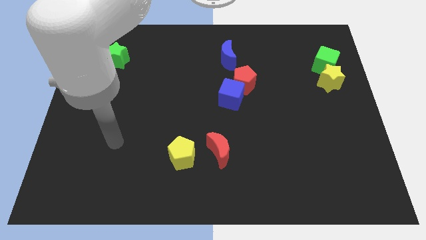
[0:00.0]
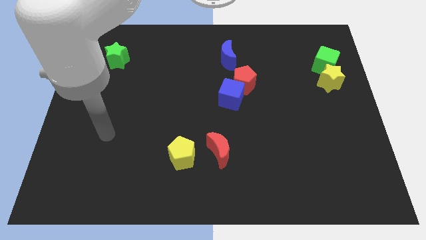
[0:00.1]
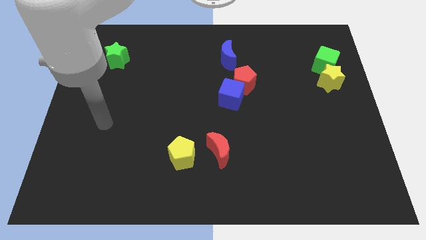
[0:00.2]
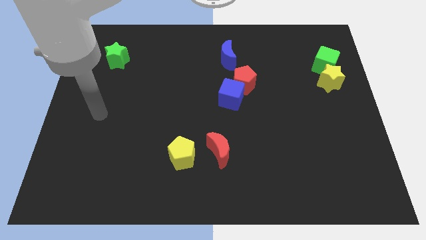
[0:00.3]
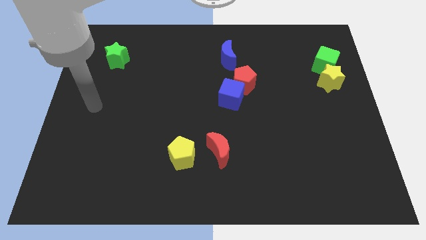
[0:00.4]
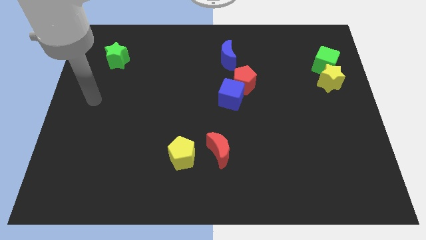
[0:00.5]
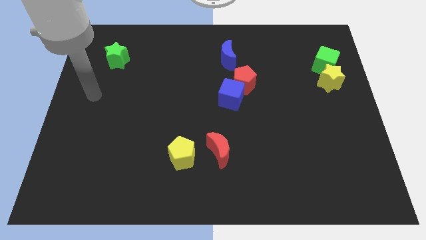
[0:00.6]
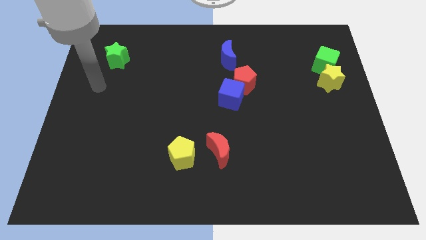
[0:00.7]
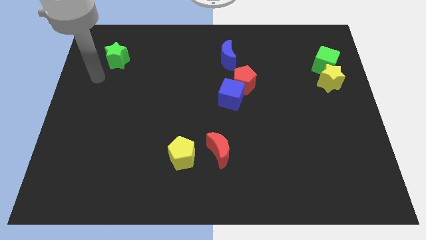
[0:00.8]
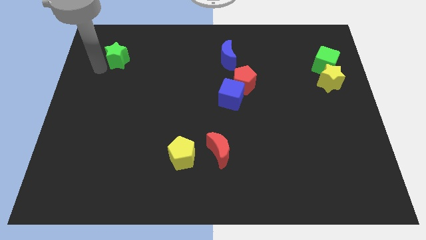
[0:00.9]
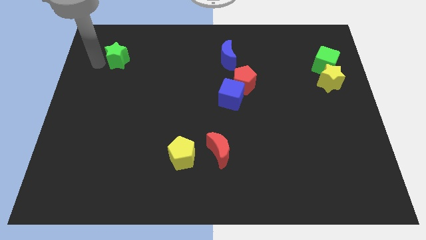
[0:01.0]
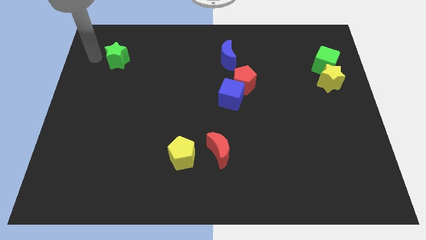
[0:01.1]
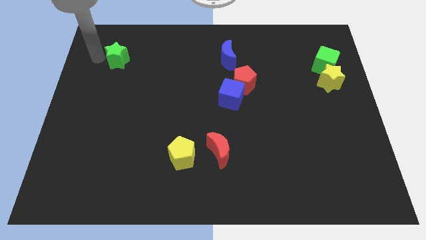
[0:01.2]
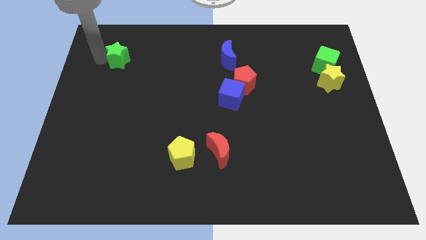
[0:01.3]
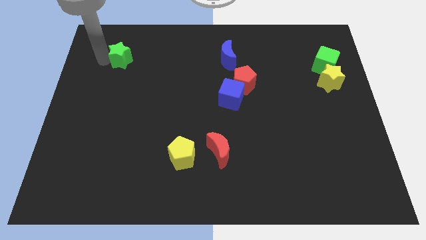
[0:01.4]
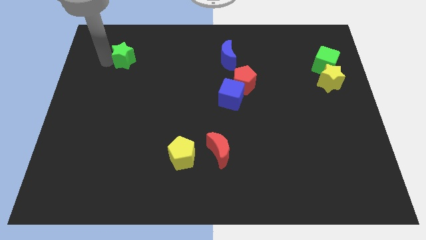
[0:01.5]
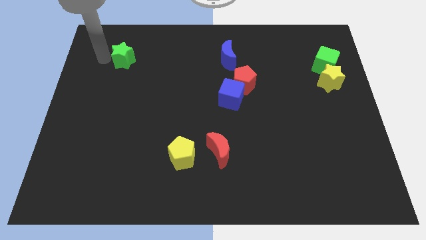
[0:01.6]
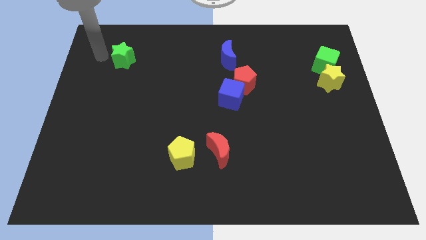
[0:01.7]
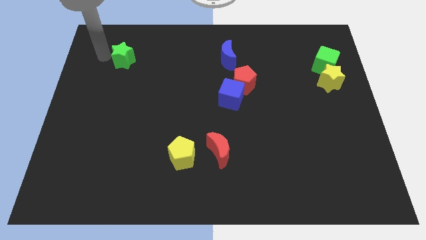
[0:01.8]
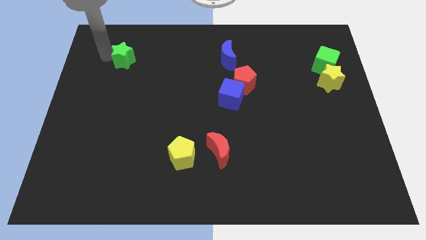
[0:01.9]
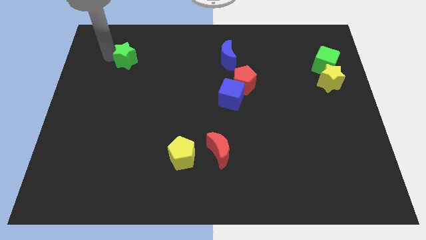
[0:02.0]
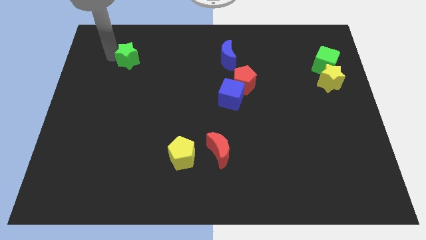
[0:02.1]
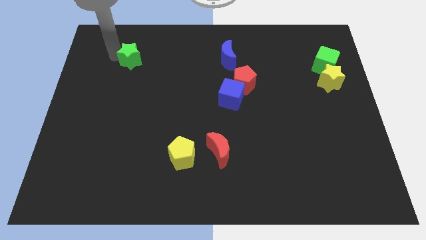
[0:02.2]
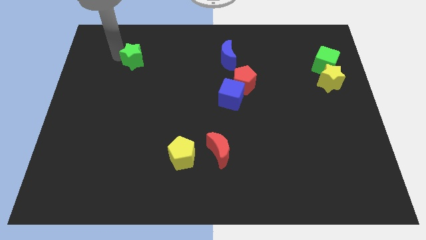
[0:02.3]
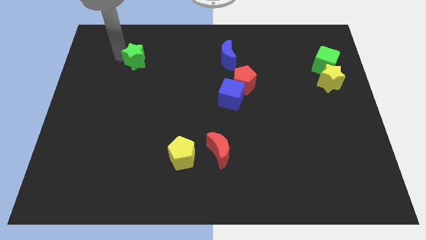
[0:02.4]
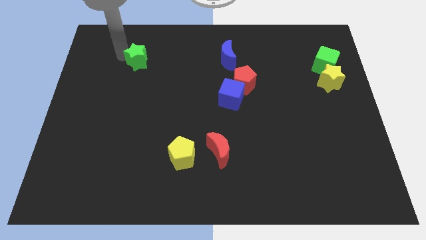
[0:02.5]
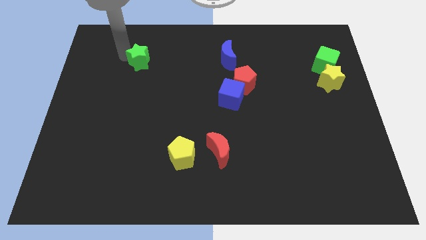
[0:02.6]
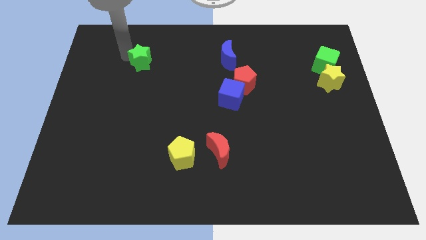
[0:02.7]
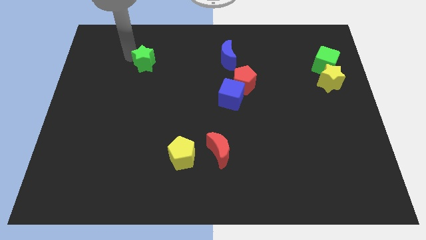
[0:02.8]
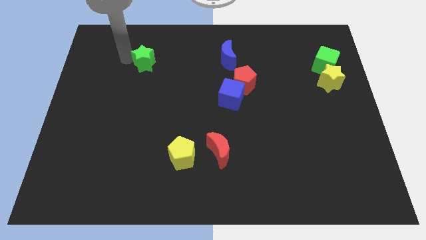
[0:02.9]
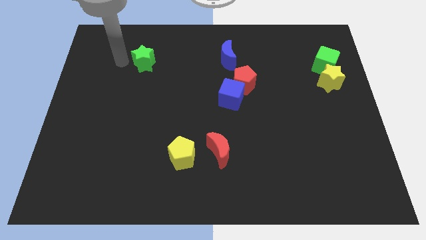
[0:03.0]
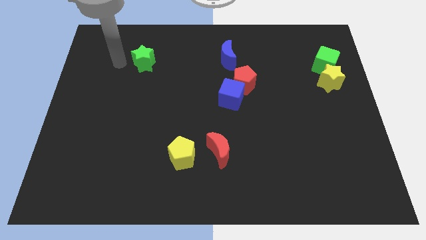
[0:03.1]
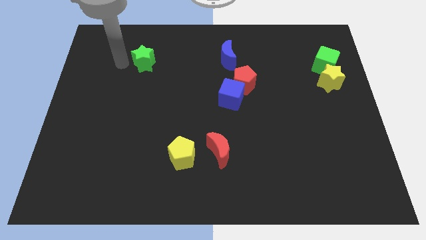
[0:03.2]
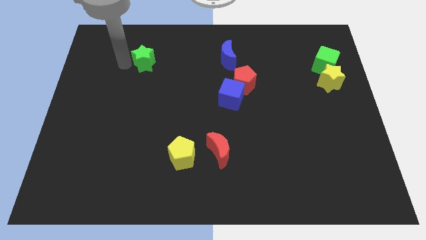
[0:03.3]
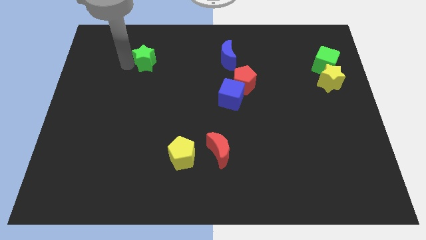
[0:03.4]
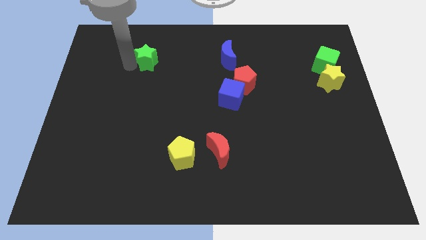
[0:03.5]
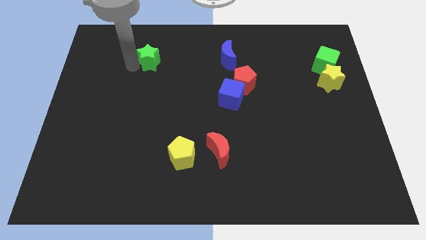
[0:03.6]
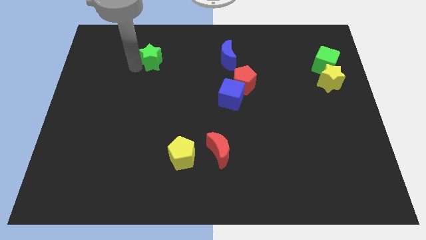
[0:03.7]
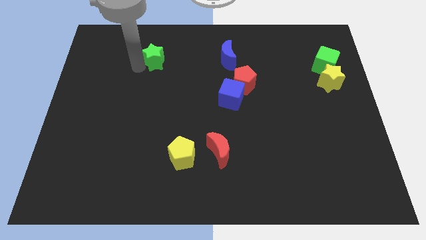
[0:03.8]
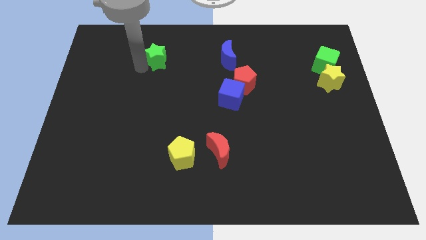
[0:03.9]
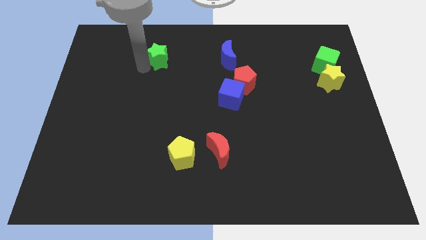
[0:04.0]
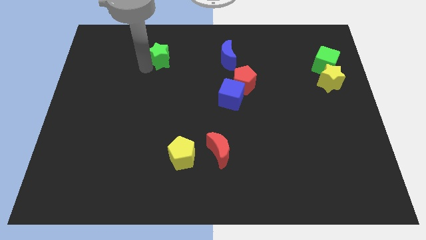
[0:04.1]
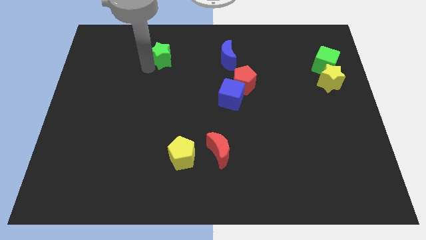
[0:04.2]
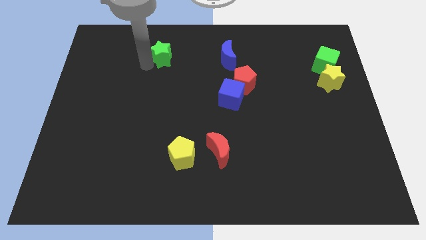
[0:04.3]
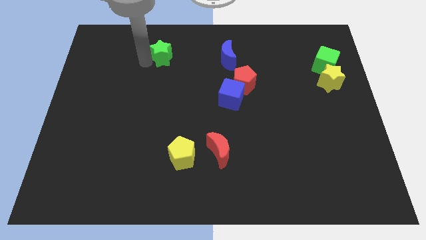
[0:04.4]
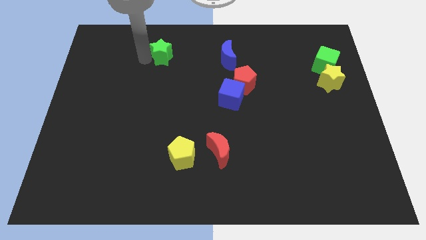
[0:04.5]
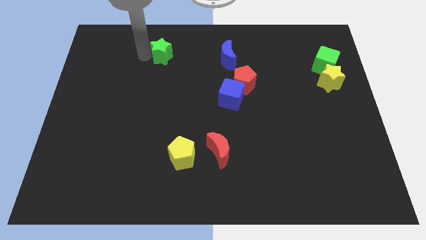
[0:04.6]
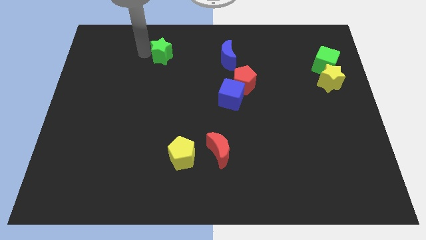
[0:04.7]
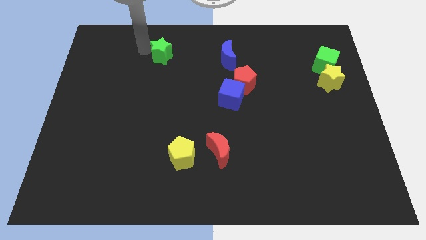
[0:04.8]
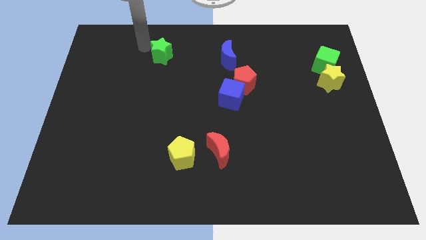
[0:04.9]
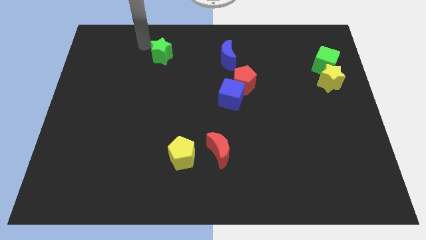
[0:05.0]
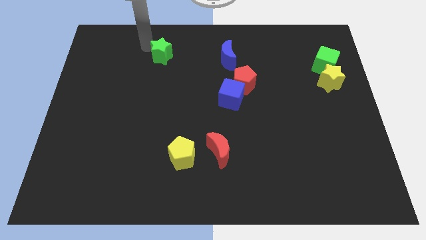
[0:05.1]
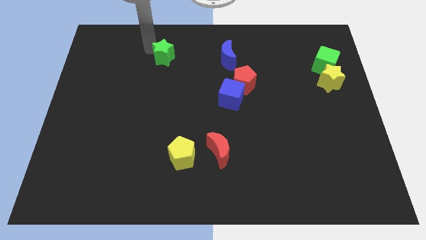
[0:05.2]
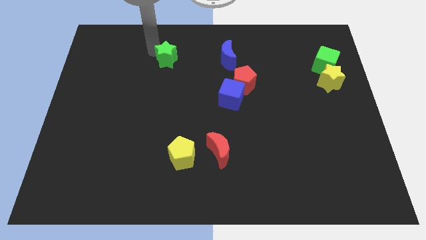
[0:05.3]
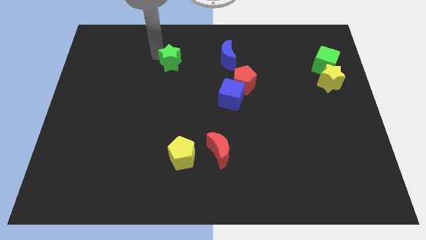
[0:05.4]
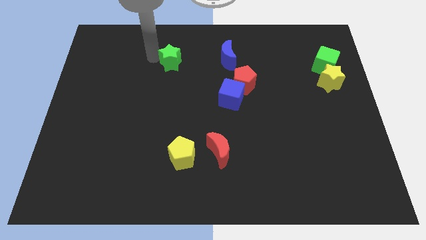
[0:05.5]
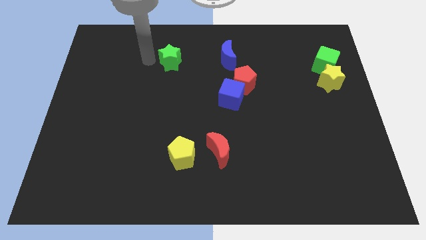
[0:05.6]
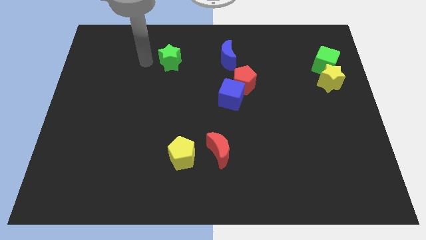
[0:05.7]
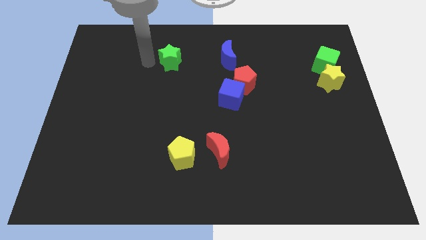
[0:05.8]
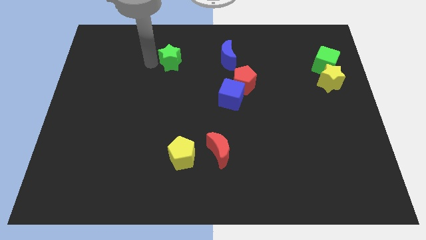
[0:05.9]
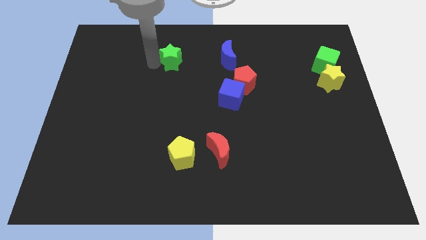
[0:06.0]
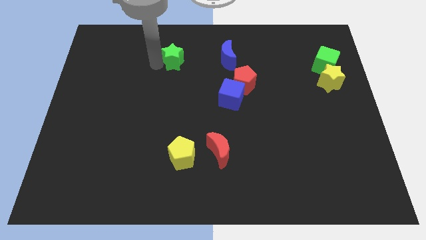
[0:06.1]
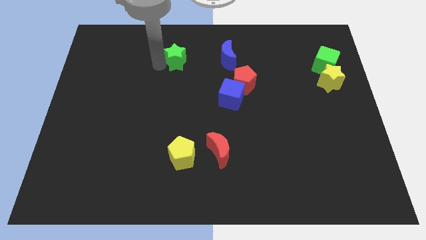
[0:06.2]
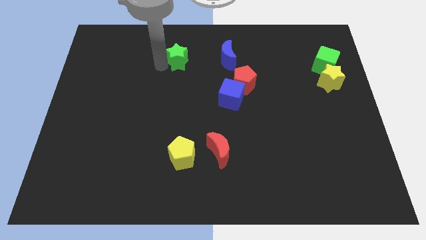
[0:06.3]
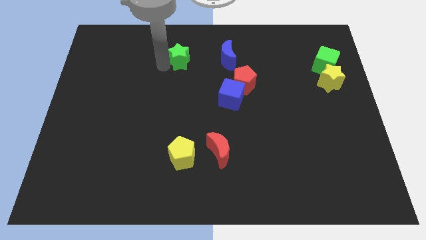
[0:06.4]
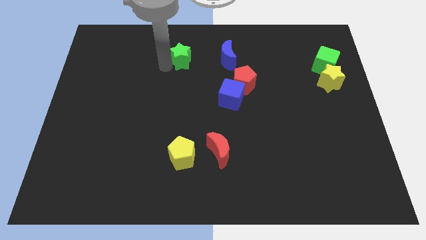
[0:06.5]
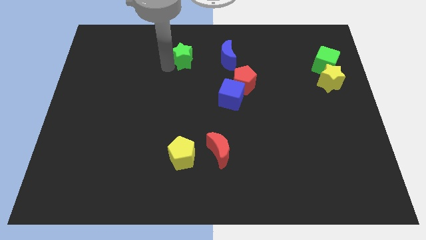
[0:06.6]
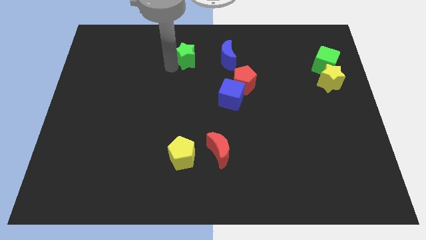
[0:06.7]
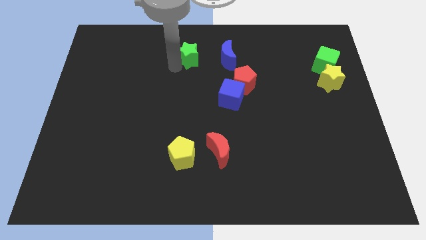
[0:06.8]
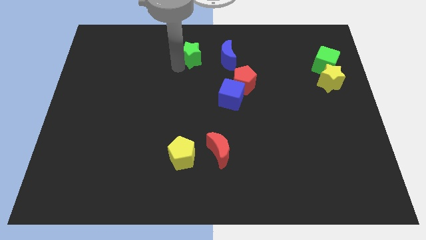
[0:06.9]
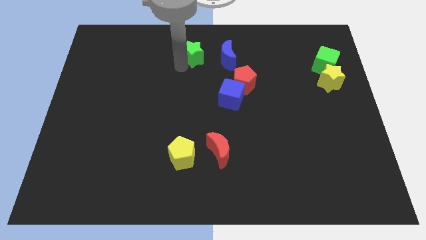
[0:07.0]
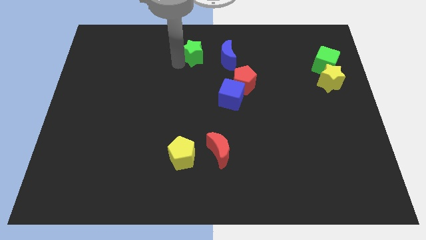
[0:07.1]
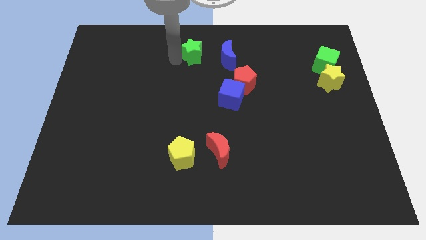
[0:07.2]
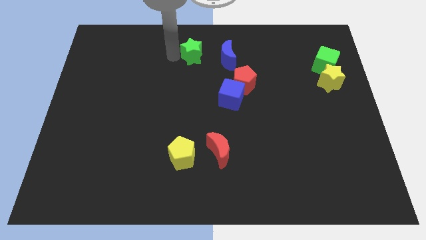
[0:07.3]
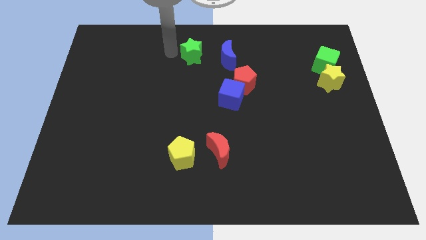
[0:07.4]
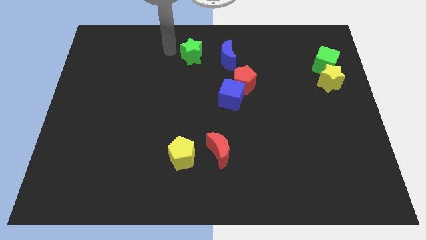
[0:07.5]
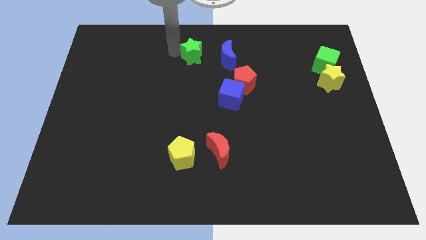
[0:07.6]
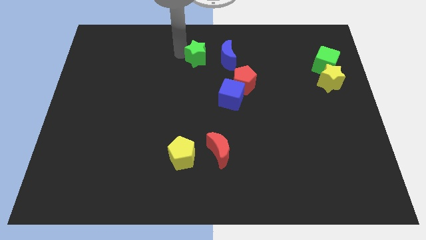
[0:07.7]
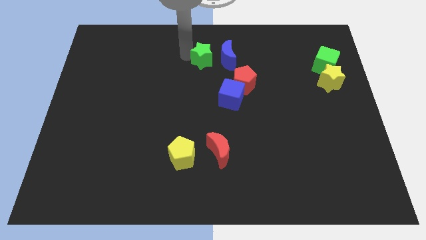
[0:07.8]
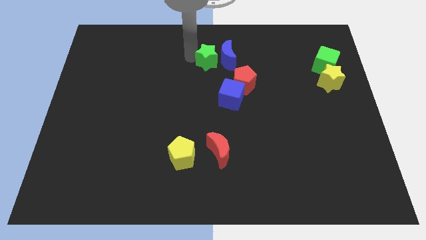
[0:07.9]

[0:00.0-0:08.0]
push the green star to the blue moon
